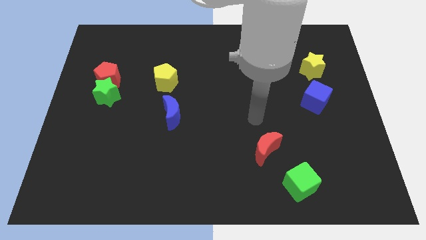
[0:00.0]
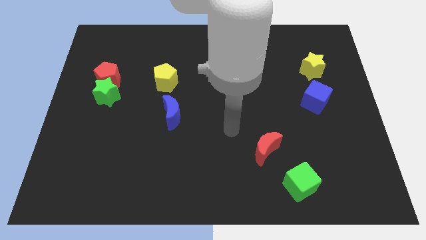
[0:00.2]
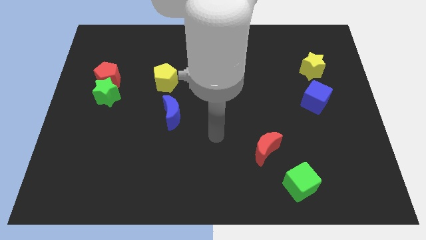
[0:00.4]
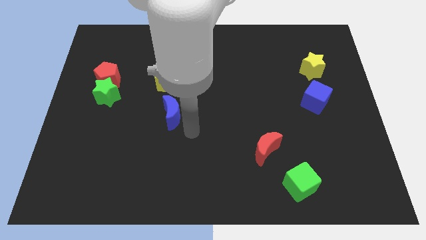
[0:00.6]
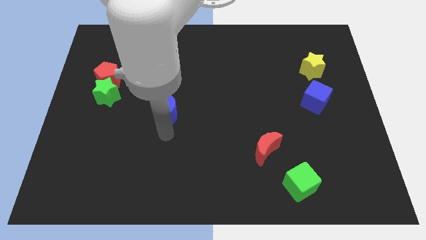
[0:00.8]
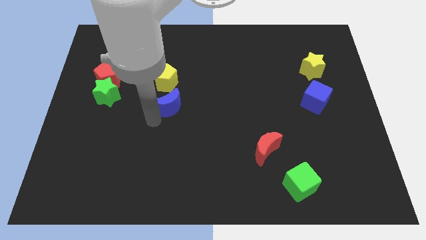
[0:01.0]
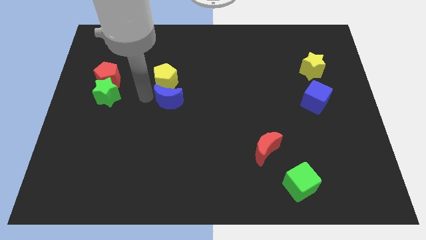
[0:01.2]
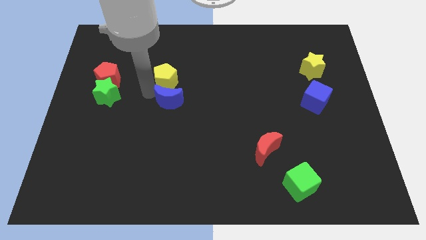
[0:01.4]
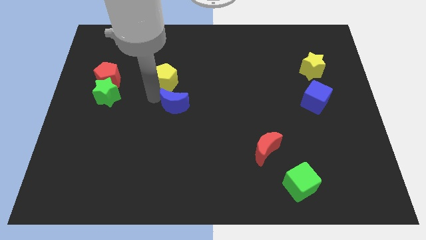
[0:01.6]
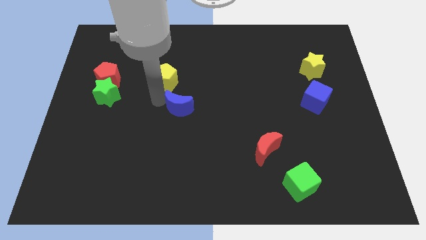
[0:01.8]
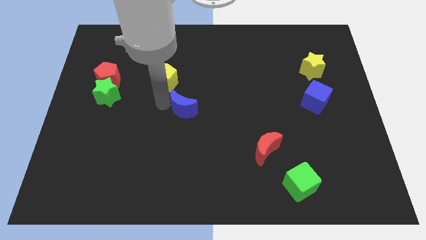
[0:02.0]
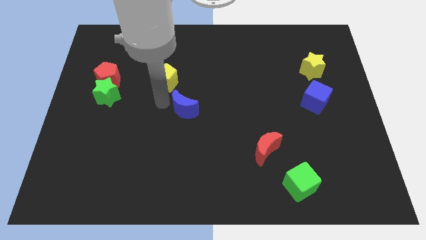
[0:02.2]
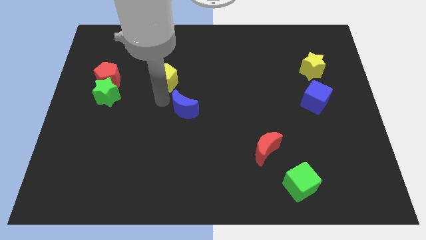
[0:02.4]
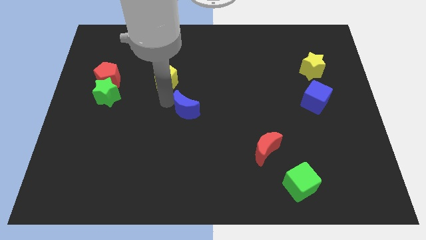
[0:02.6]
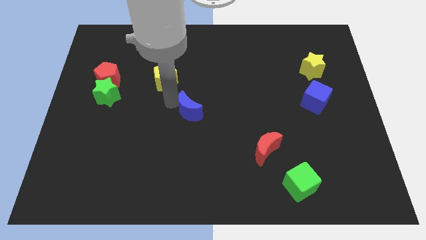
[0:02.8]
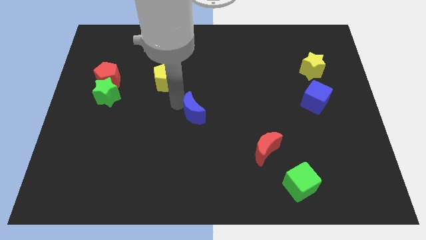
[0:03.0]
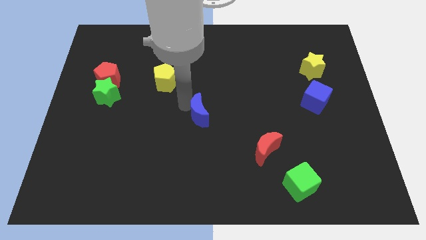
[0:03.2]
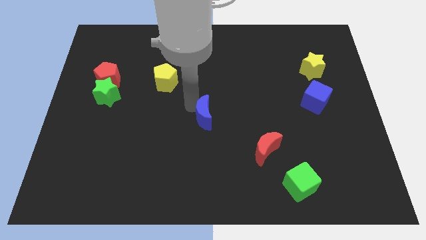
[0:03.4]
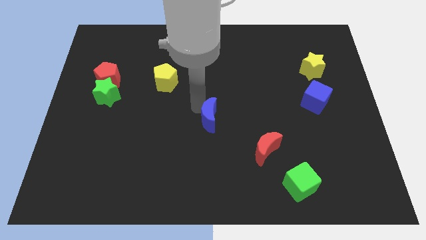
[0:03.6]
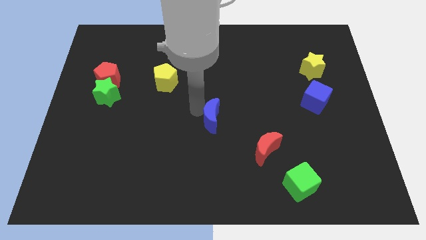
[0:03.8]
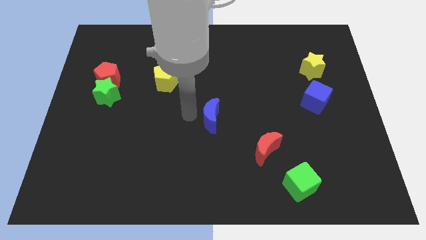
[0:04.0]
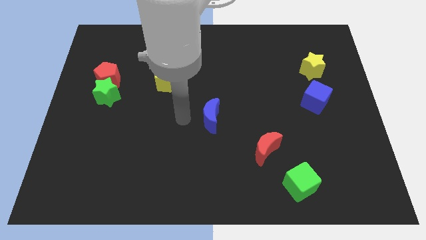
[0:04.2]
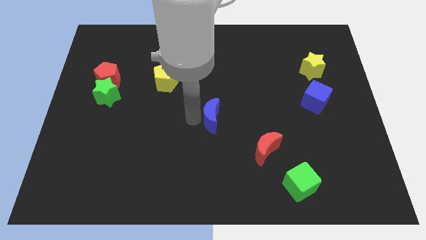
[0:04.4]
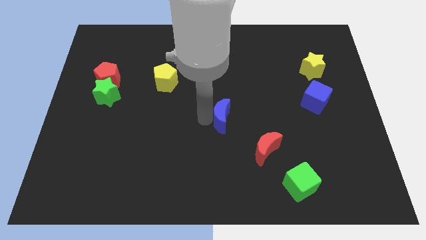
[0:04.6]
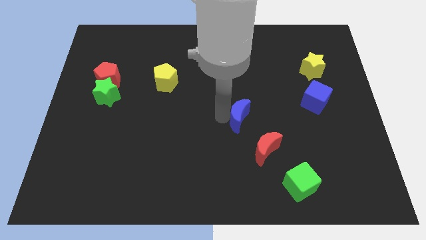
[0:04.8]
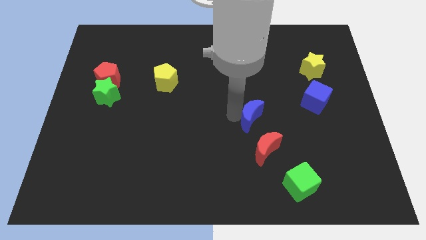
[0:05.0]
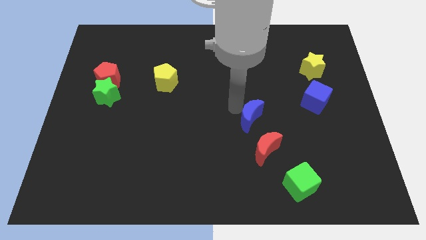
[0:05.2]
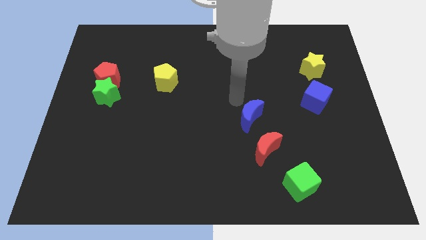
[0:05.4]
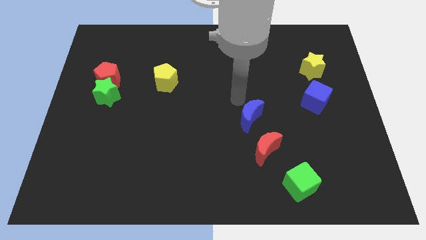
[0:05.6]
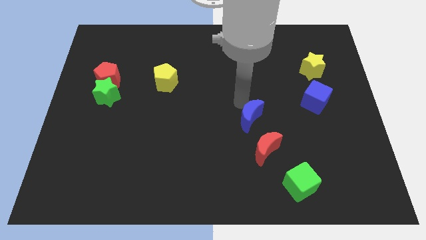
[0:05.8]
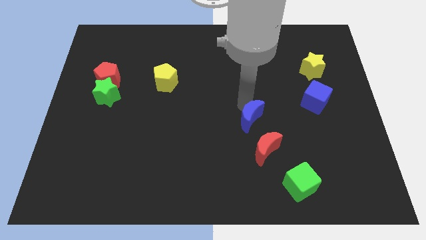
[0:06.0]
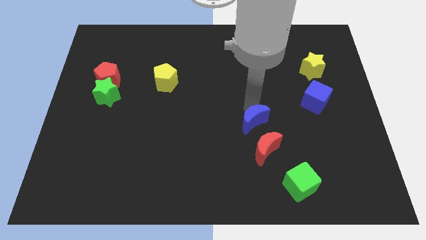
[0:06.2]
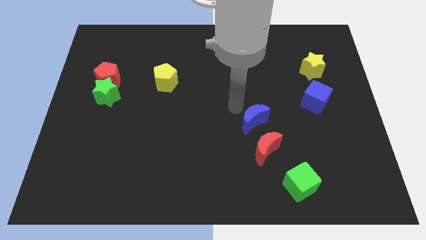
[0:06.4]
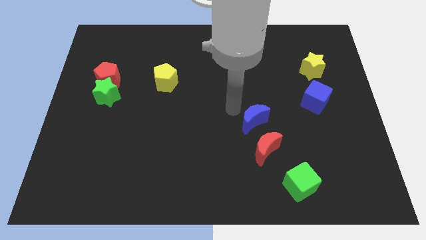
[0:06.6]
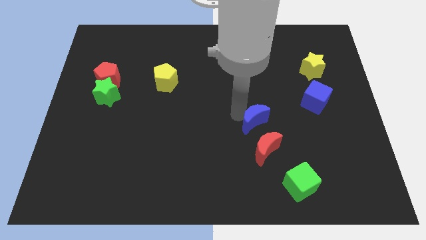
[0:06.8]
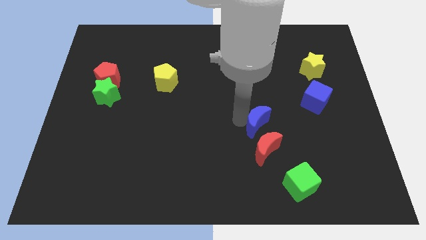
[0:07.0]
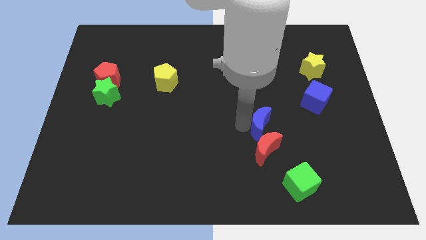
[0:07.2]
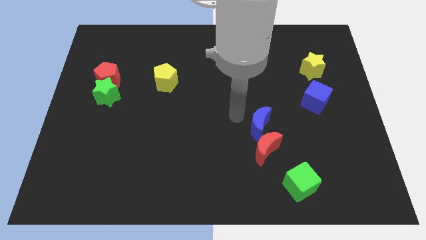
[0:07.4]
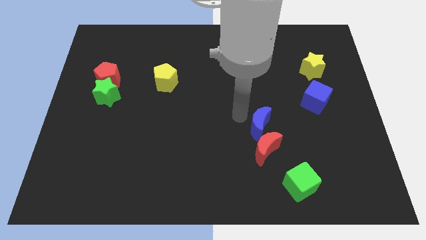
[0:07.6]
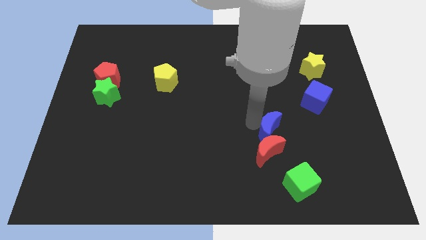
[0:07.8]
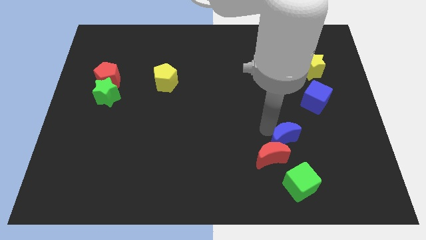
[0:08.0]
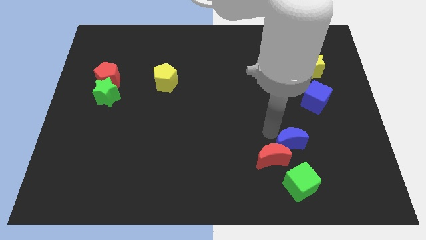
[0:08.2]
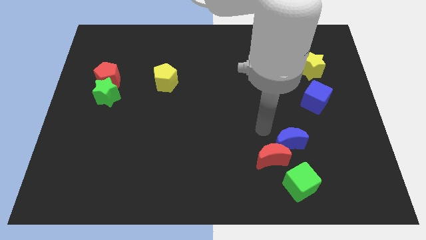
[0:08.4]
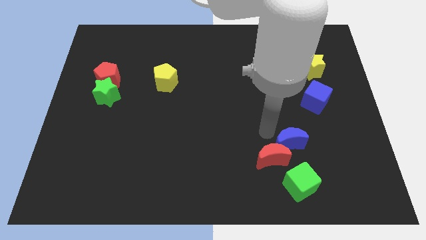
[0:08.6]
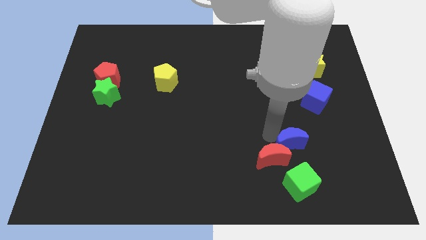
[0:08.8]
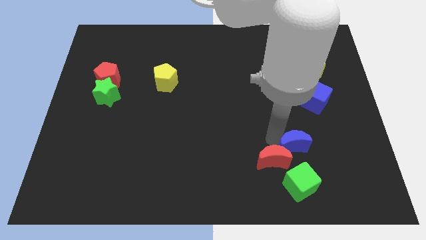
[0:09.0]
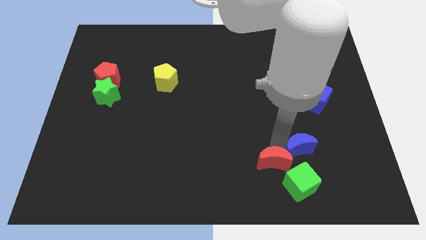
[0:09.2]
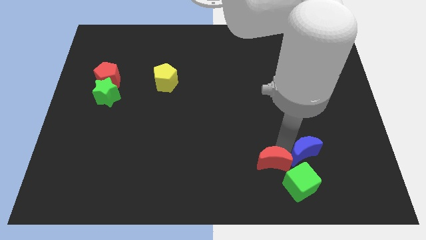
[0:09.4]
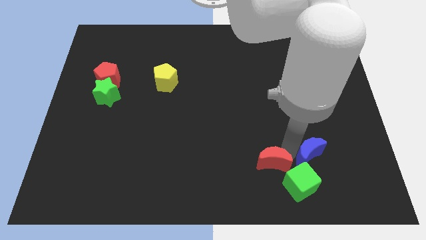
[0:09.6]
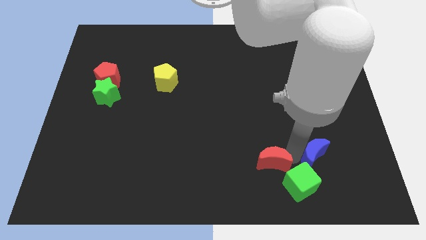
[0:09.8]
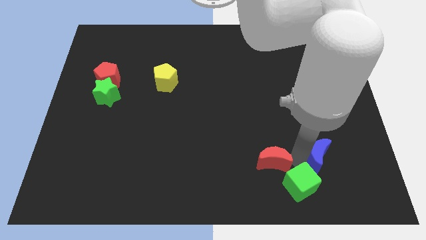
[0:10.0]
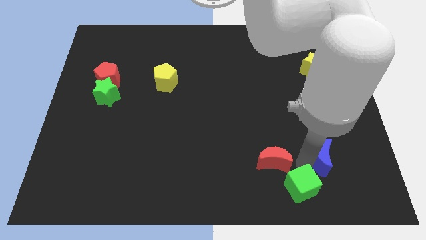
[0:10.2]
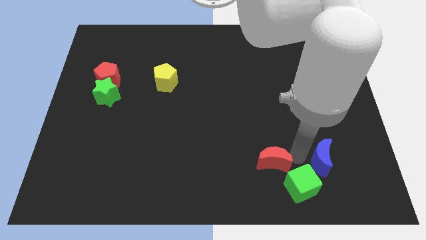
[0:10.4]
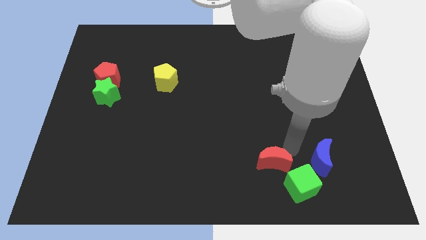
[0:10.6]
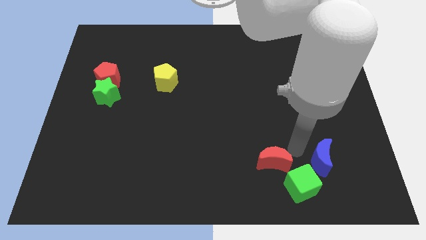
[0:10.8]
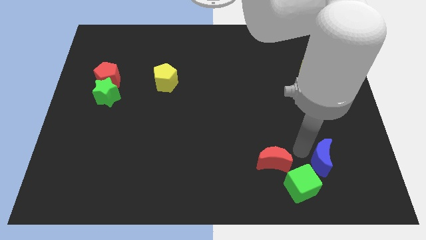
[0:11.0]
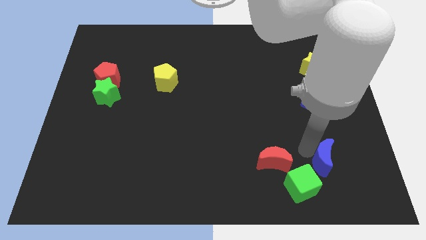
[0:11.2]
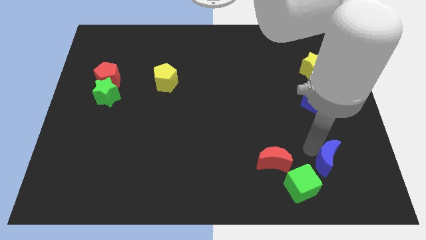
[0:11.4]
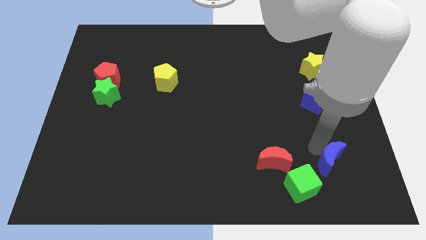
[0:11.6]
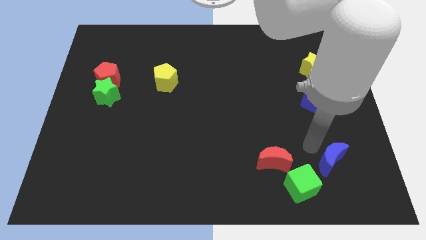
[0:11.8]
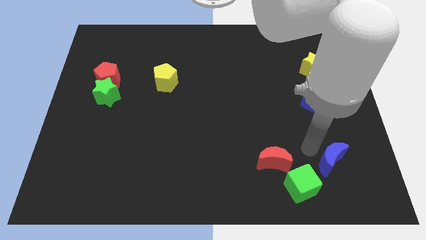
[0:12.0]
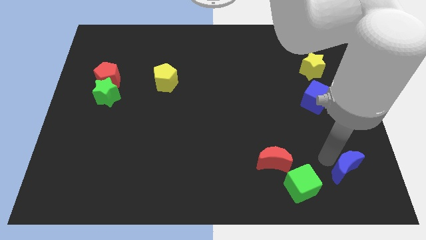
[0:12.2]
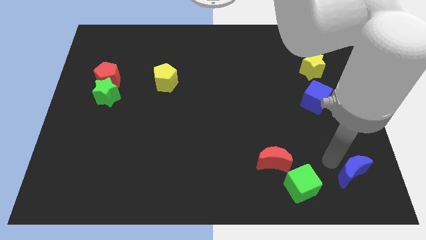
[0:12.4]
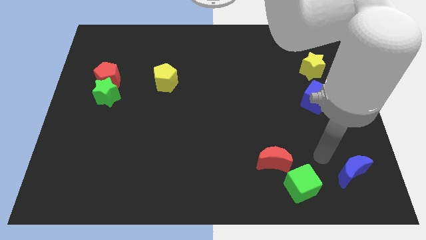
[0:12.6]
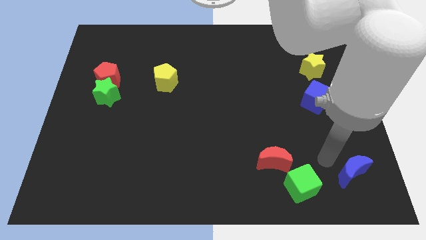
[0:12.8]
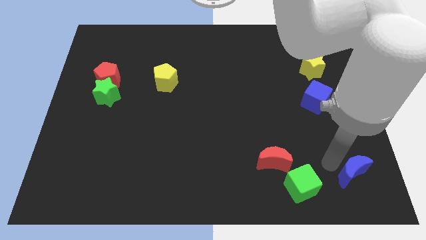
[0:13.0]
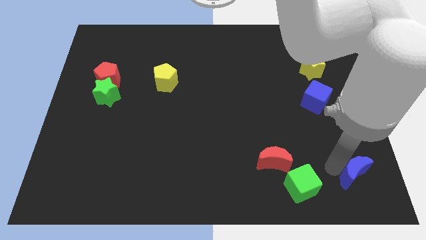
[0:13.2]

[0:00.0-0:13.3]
move the blue moon to the bottom right of the board
